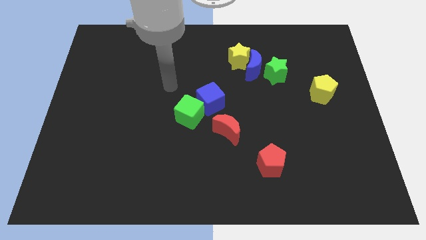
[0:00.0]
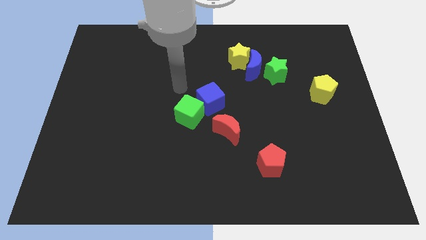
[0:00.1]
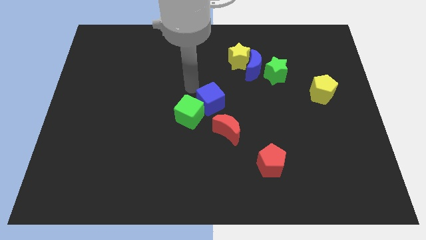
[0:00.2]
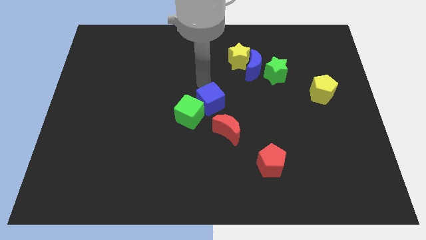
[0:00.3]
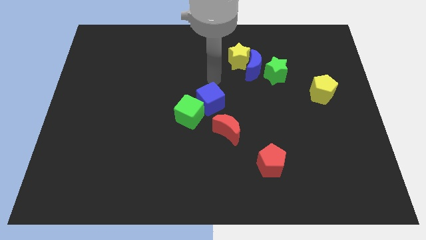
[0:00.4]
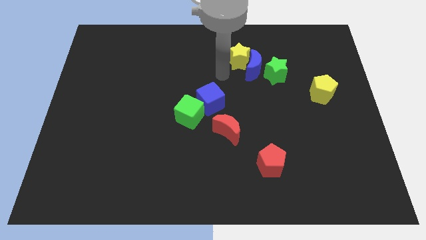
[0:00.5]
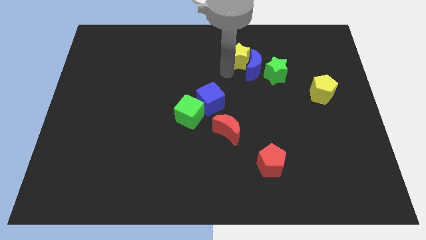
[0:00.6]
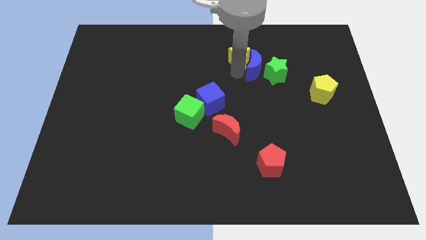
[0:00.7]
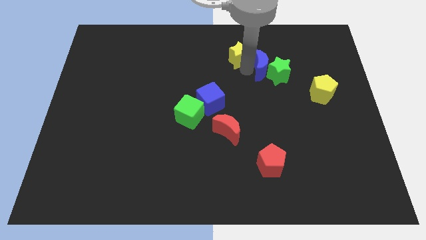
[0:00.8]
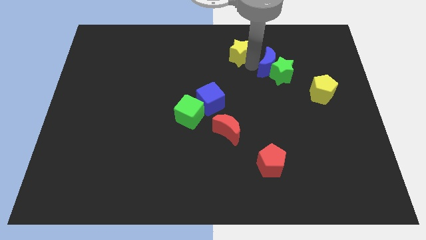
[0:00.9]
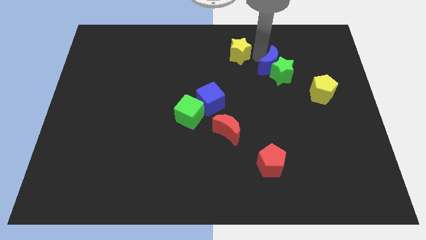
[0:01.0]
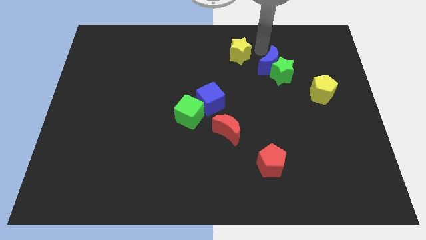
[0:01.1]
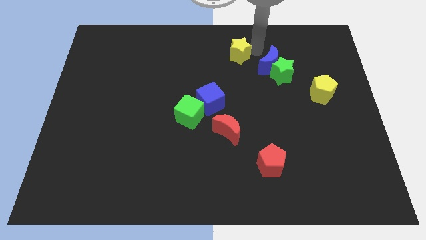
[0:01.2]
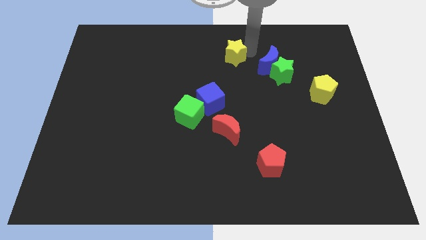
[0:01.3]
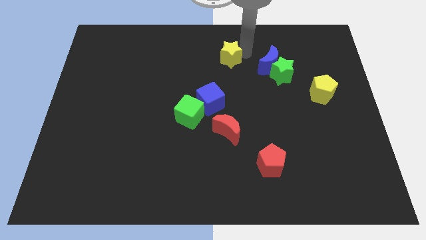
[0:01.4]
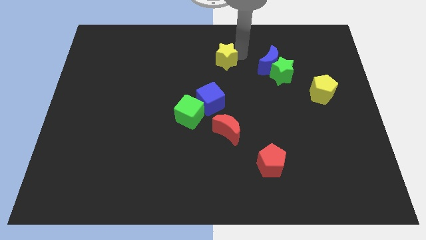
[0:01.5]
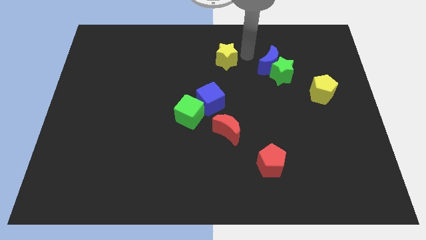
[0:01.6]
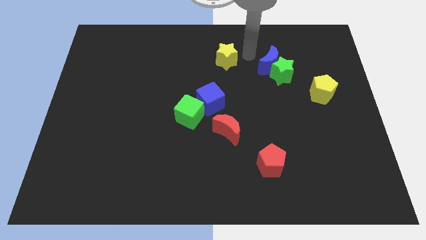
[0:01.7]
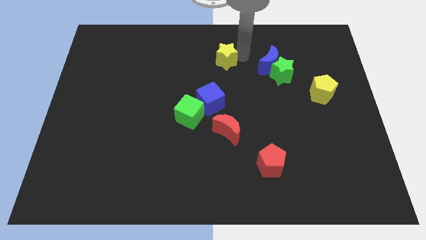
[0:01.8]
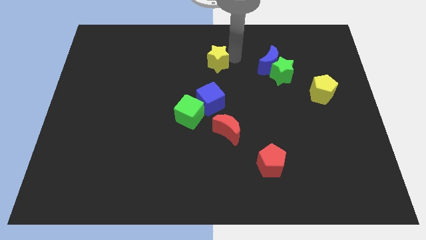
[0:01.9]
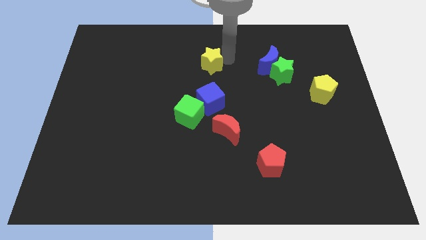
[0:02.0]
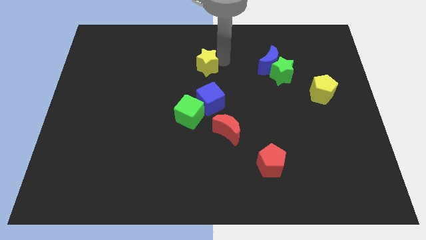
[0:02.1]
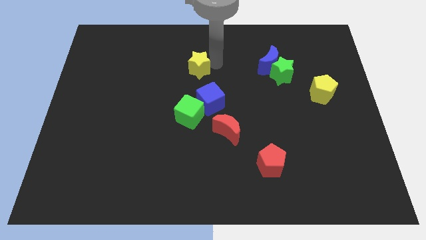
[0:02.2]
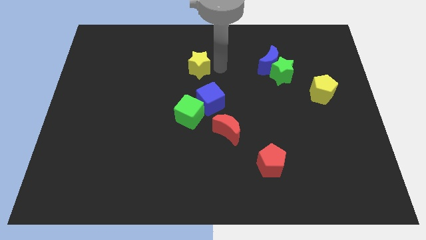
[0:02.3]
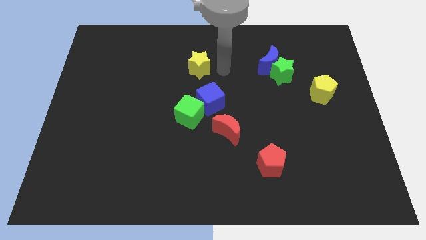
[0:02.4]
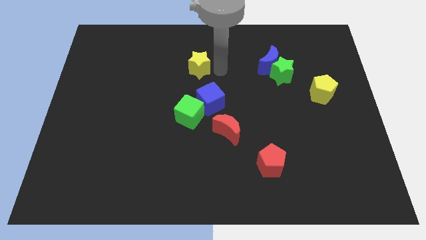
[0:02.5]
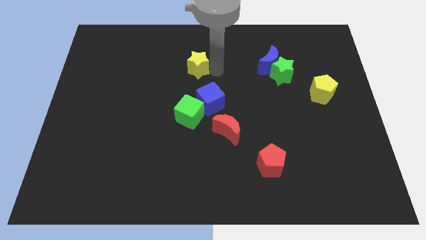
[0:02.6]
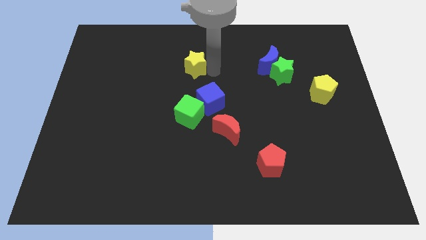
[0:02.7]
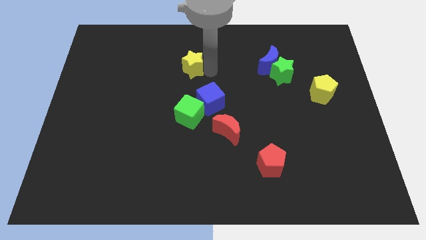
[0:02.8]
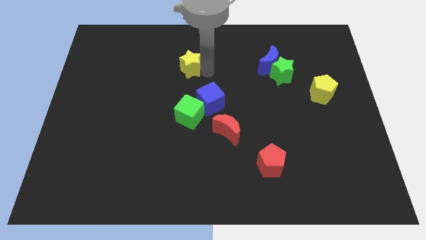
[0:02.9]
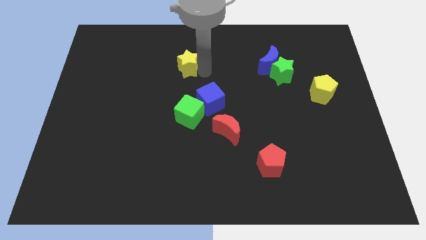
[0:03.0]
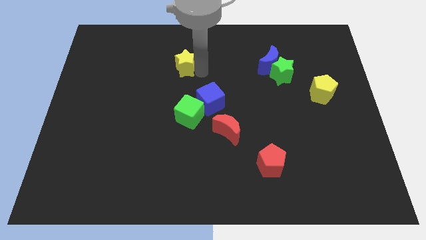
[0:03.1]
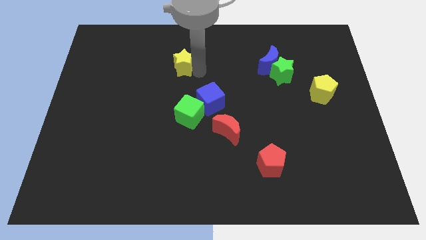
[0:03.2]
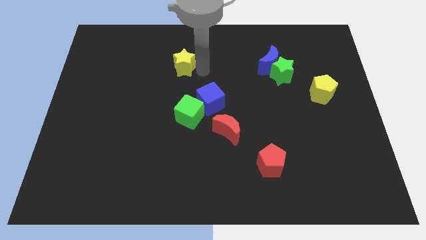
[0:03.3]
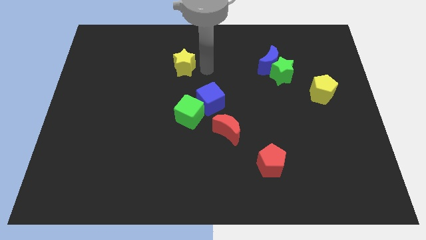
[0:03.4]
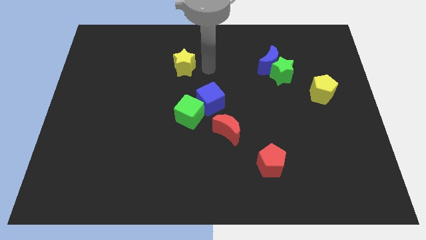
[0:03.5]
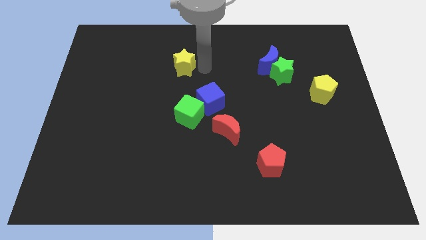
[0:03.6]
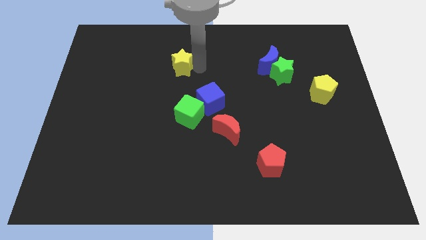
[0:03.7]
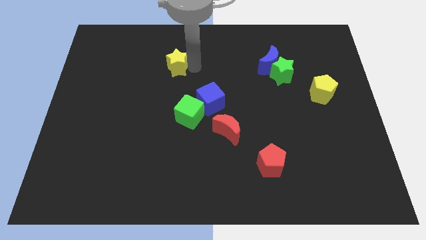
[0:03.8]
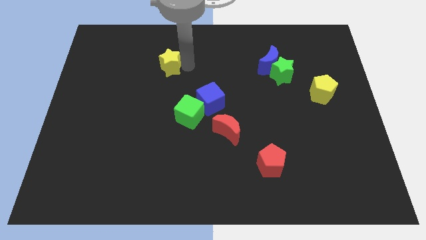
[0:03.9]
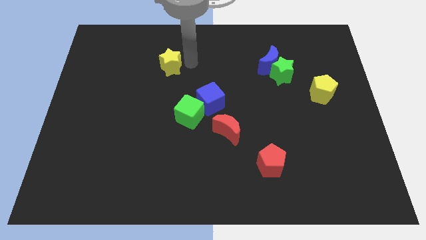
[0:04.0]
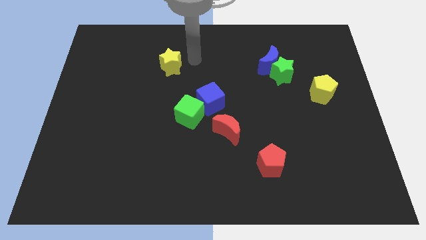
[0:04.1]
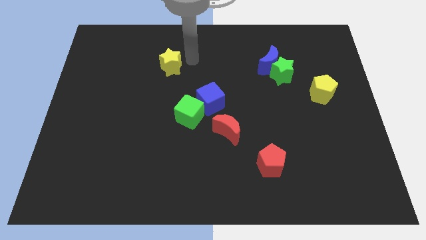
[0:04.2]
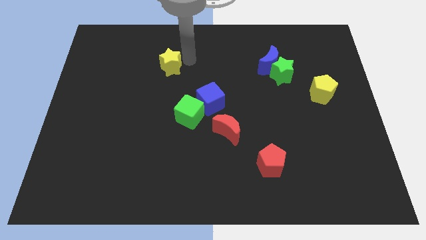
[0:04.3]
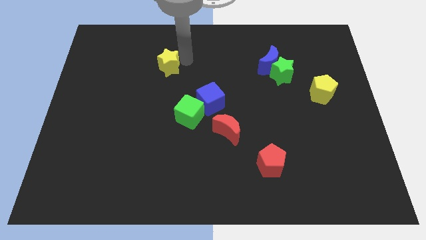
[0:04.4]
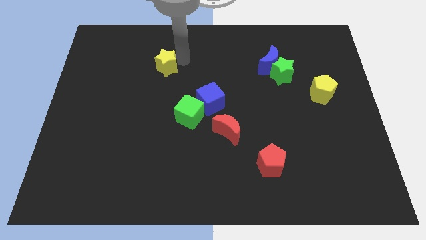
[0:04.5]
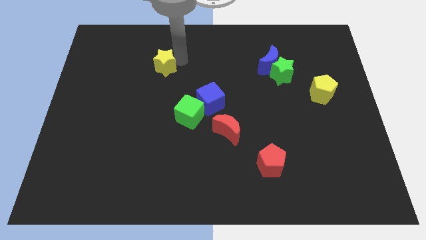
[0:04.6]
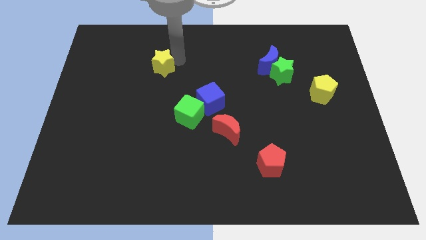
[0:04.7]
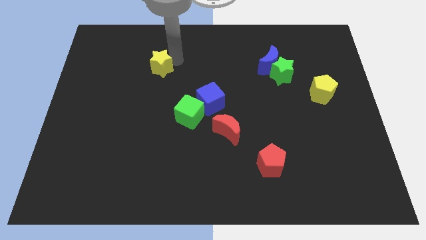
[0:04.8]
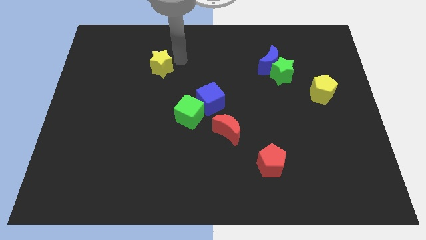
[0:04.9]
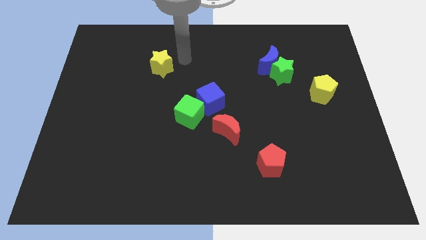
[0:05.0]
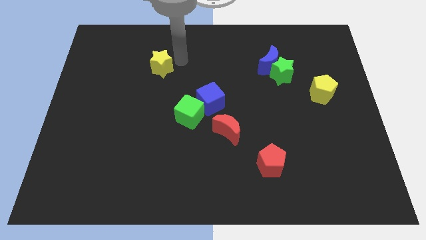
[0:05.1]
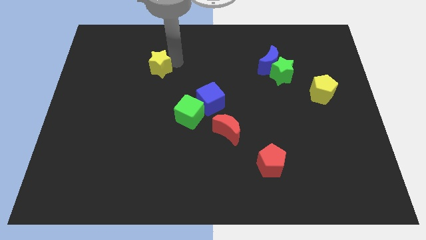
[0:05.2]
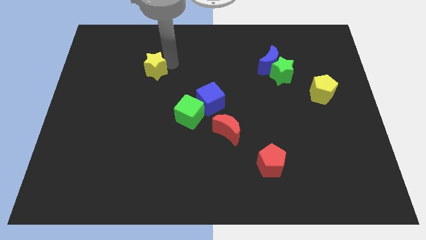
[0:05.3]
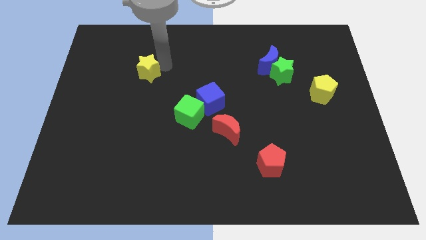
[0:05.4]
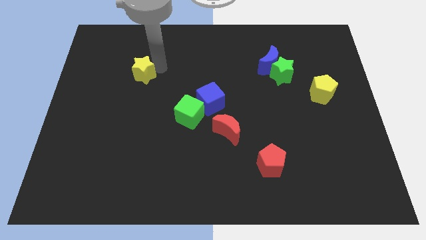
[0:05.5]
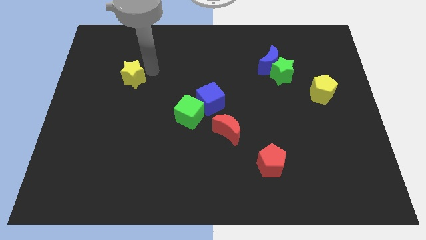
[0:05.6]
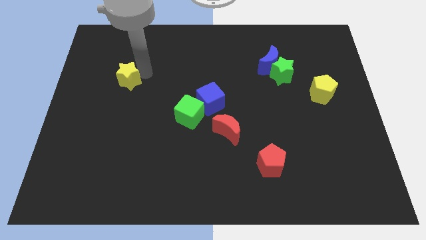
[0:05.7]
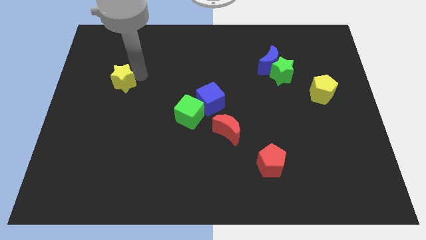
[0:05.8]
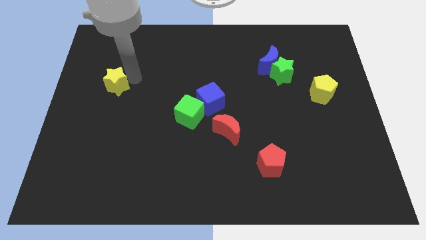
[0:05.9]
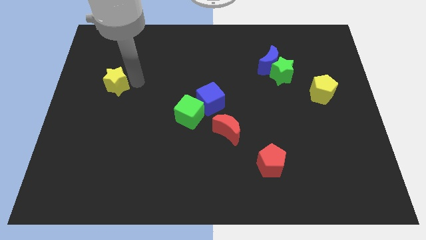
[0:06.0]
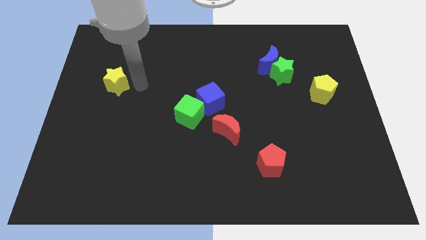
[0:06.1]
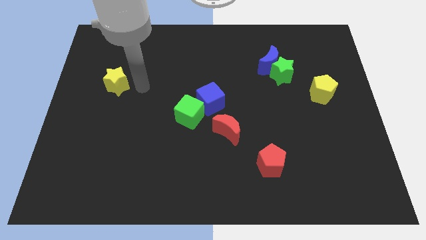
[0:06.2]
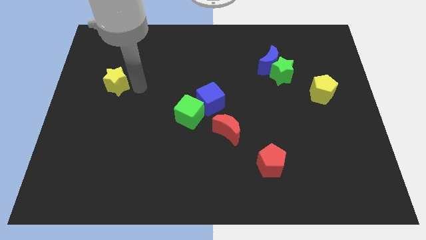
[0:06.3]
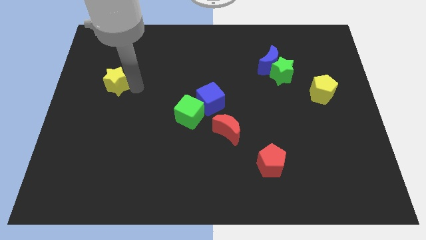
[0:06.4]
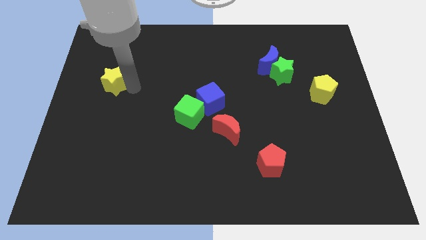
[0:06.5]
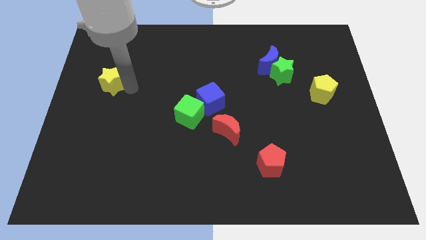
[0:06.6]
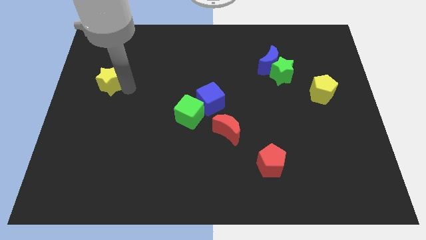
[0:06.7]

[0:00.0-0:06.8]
move the yellow star to the left side
